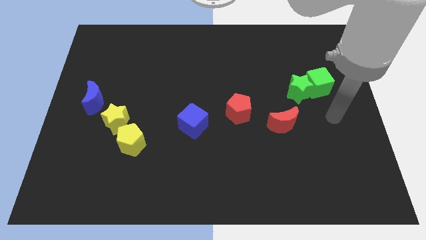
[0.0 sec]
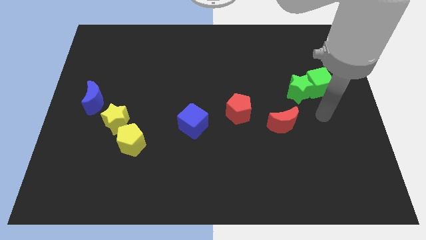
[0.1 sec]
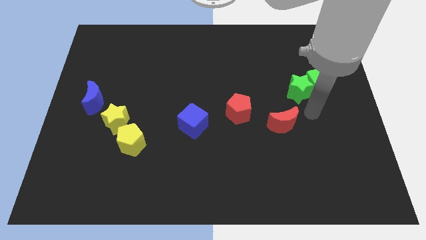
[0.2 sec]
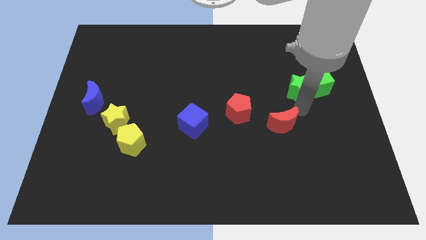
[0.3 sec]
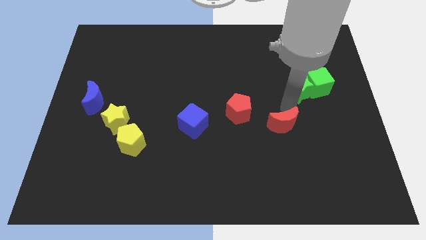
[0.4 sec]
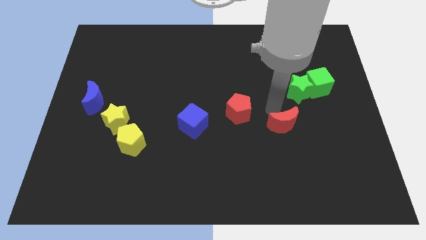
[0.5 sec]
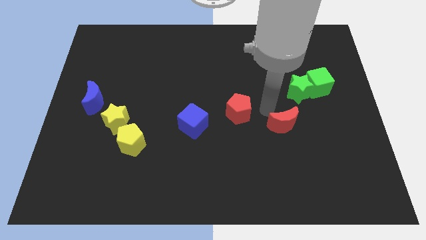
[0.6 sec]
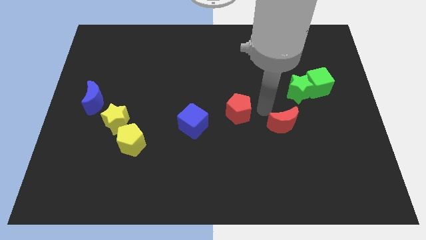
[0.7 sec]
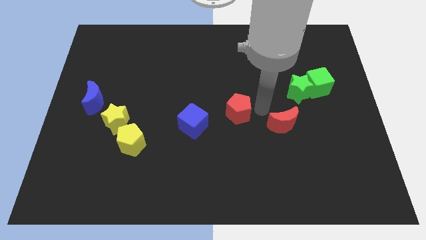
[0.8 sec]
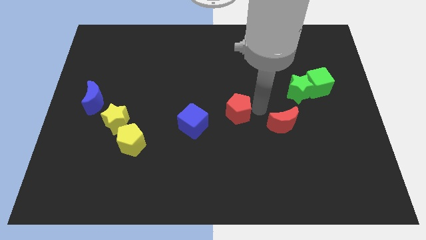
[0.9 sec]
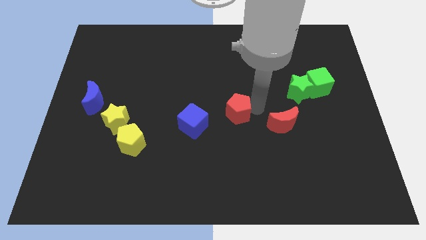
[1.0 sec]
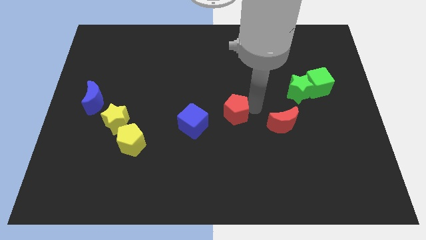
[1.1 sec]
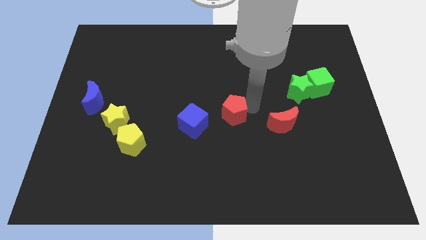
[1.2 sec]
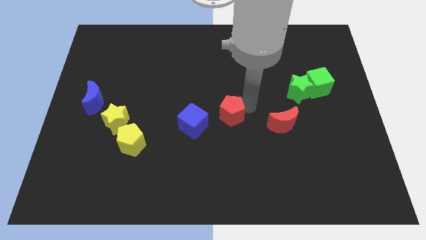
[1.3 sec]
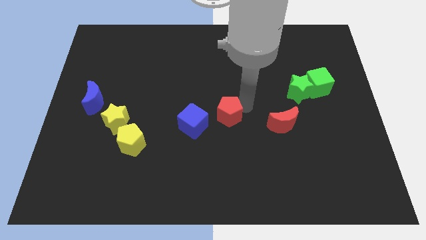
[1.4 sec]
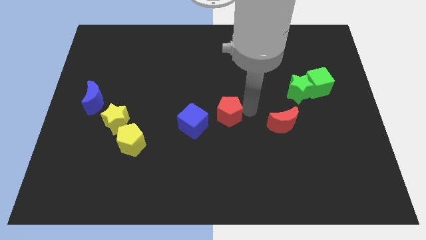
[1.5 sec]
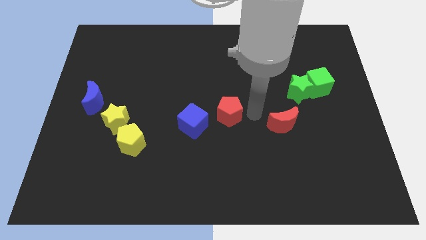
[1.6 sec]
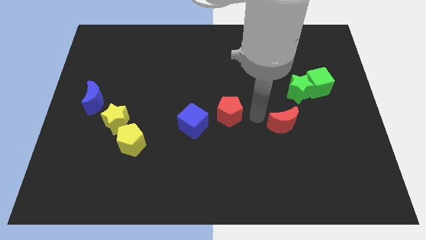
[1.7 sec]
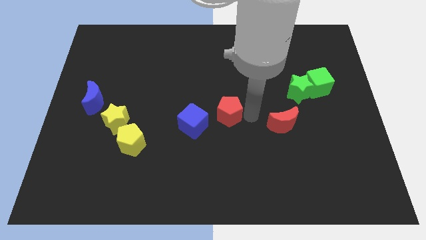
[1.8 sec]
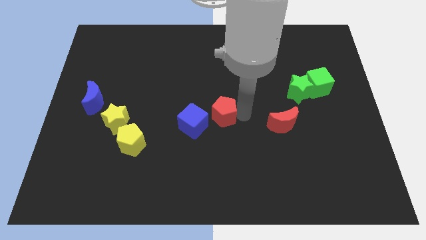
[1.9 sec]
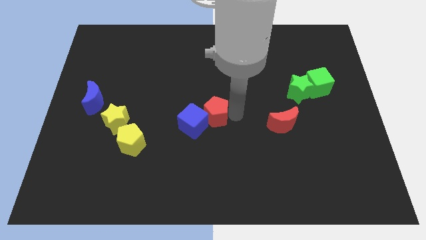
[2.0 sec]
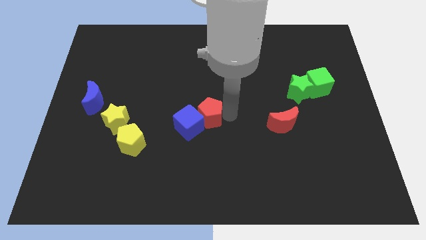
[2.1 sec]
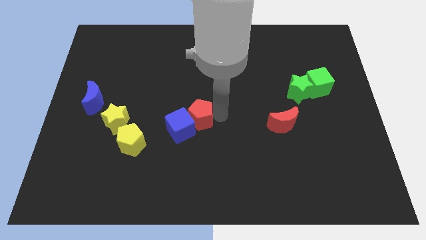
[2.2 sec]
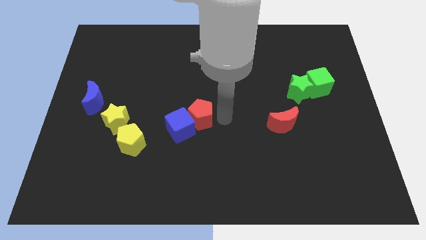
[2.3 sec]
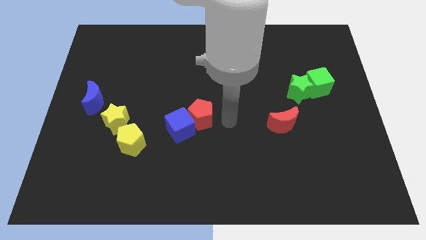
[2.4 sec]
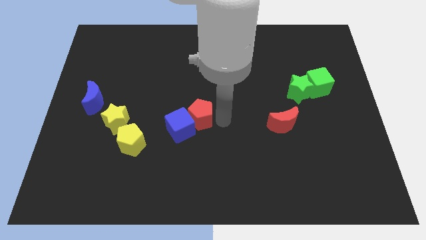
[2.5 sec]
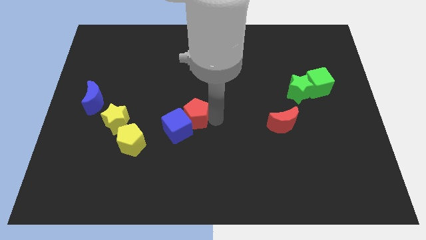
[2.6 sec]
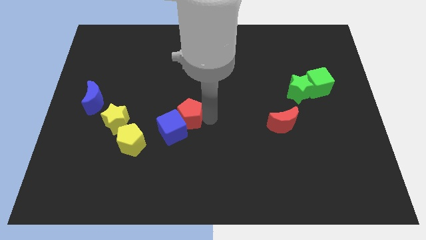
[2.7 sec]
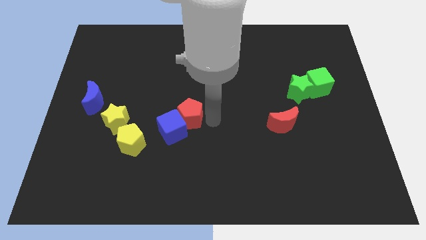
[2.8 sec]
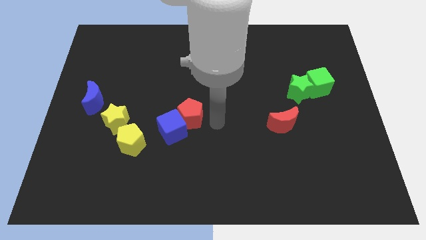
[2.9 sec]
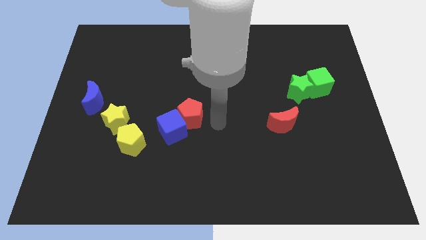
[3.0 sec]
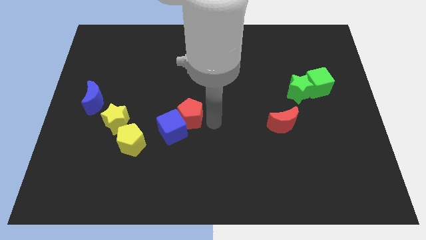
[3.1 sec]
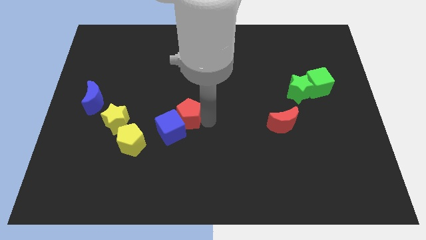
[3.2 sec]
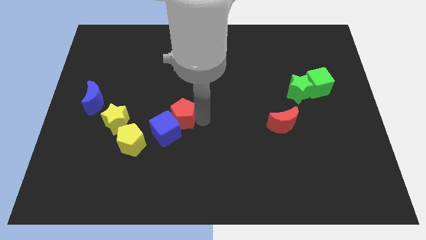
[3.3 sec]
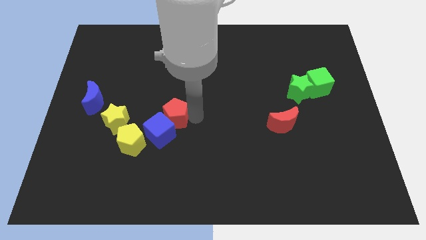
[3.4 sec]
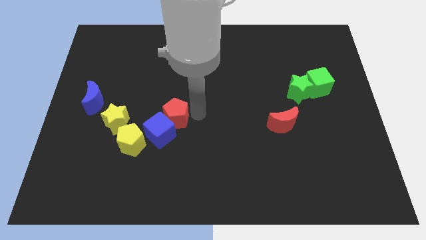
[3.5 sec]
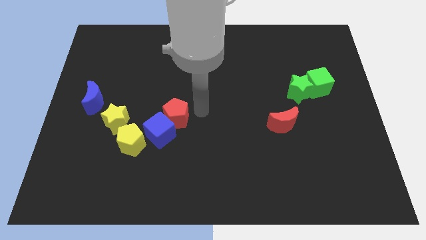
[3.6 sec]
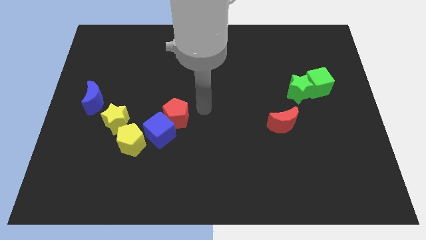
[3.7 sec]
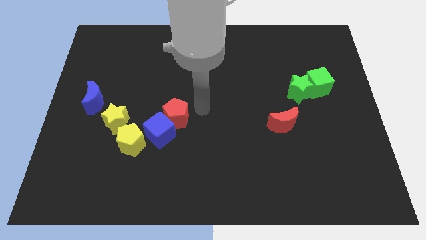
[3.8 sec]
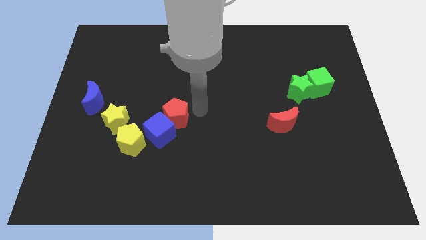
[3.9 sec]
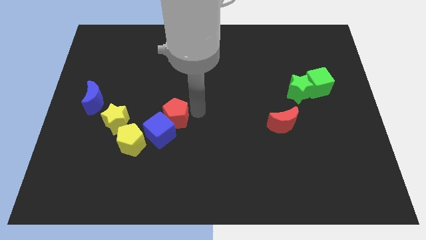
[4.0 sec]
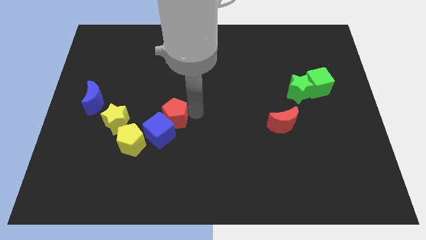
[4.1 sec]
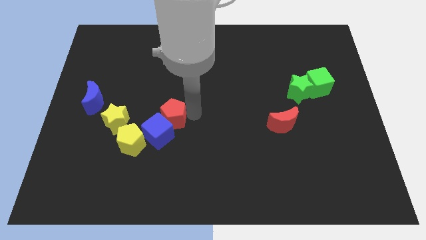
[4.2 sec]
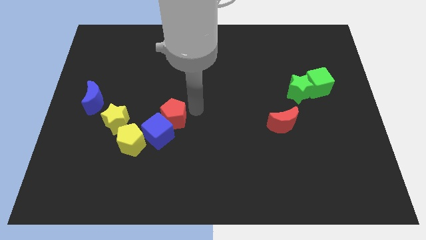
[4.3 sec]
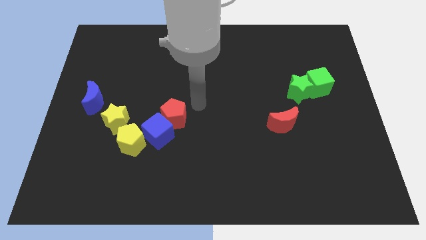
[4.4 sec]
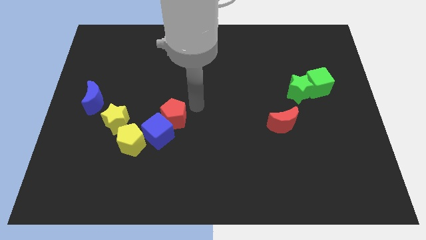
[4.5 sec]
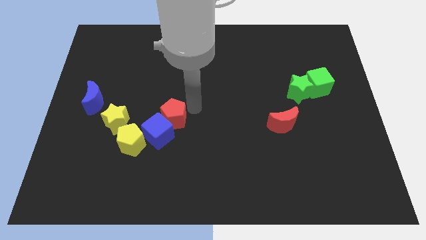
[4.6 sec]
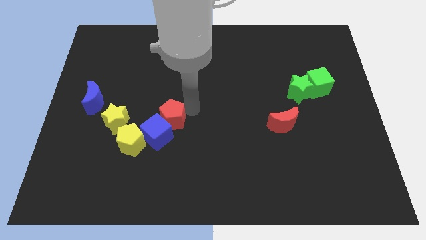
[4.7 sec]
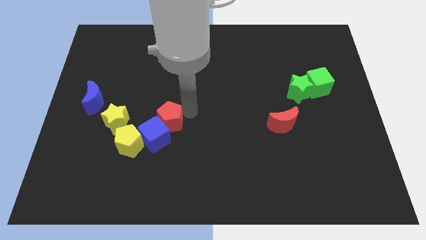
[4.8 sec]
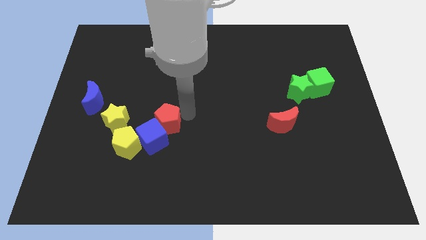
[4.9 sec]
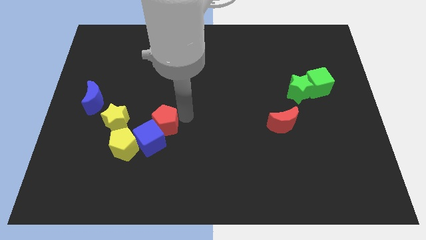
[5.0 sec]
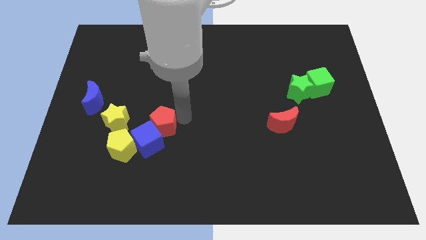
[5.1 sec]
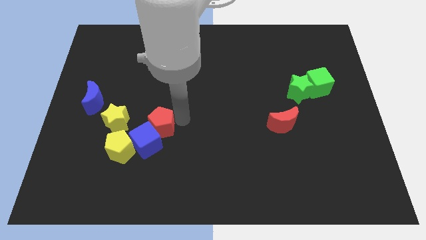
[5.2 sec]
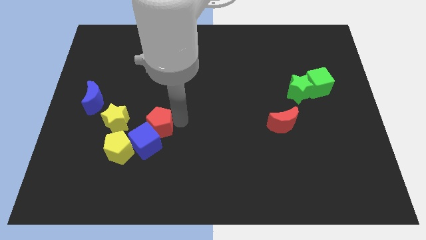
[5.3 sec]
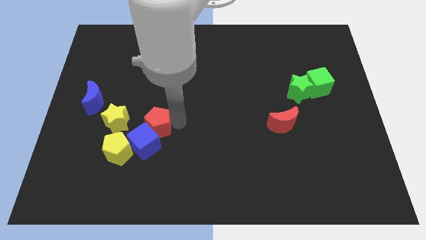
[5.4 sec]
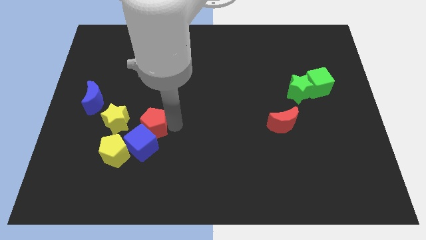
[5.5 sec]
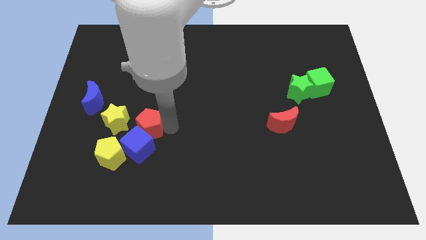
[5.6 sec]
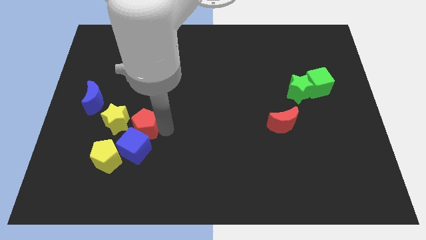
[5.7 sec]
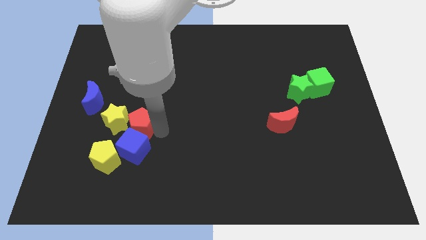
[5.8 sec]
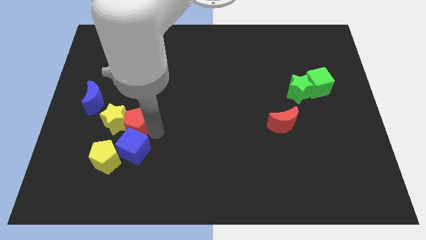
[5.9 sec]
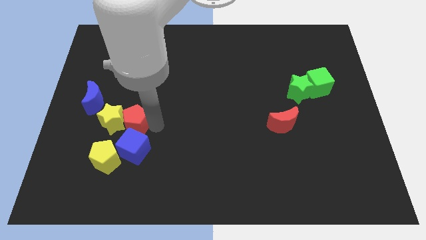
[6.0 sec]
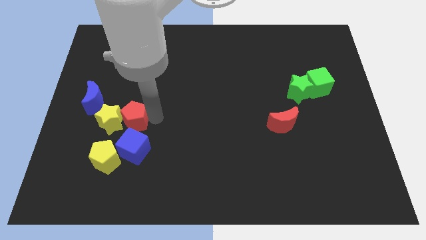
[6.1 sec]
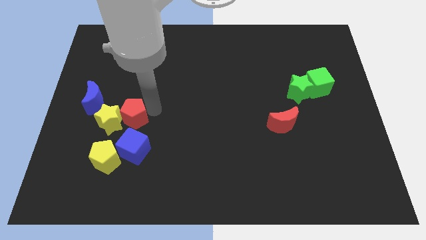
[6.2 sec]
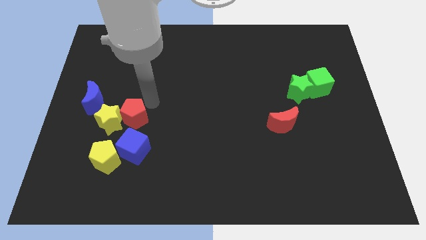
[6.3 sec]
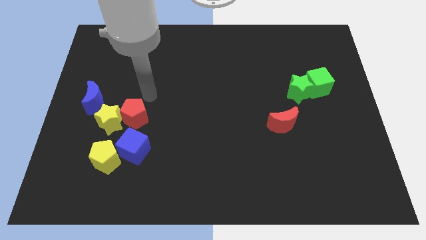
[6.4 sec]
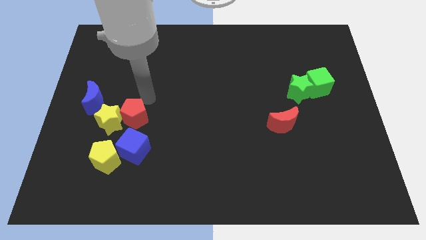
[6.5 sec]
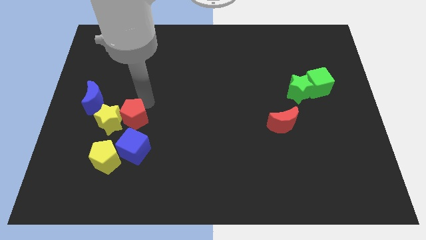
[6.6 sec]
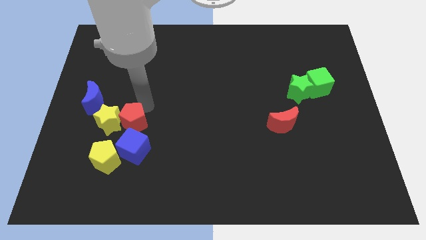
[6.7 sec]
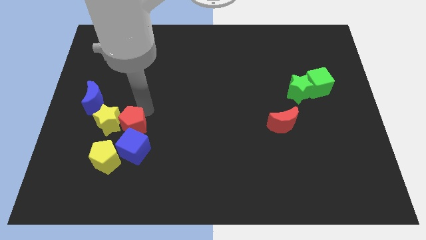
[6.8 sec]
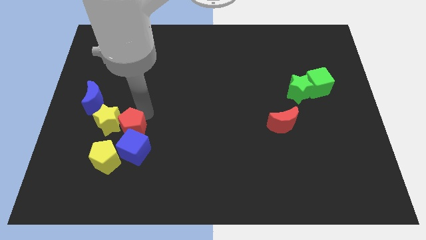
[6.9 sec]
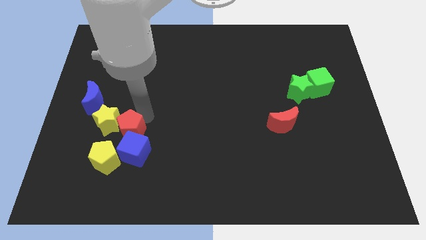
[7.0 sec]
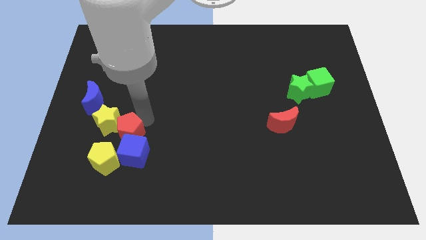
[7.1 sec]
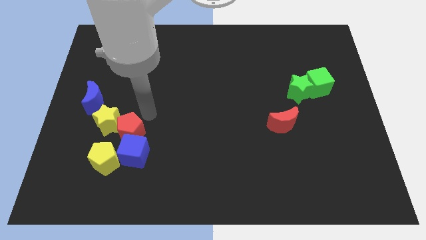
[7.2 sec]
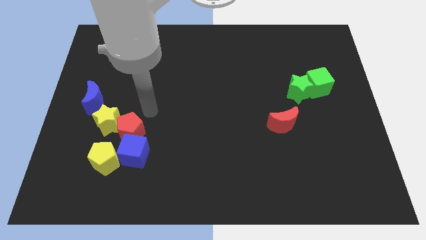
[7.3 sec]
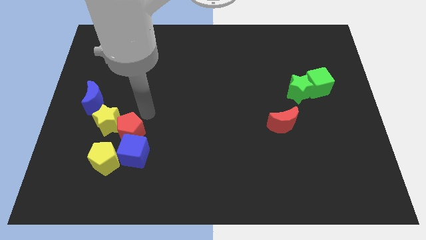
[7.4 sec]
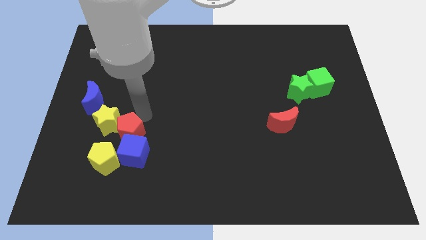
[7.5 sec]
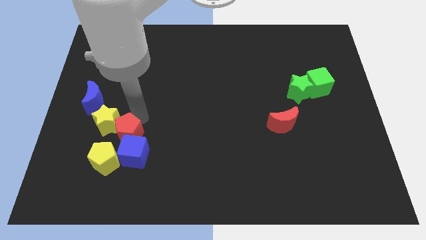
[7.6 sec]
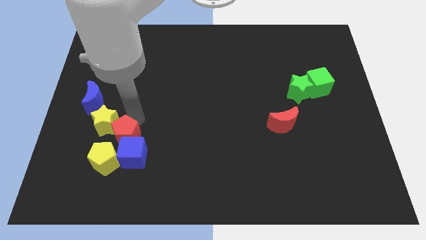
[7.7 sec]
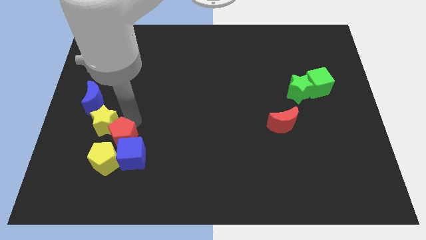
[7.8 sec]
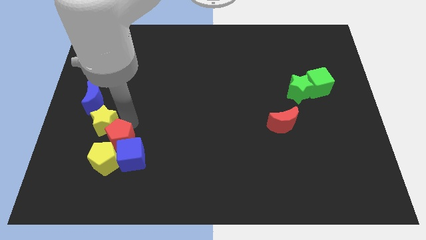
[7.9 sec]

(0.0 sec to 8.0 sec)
put the red pentagon to the yellow pentagon
